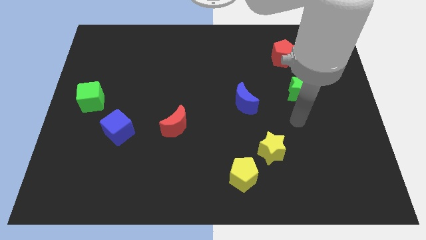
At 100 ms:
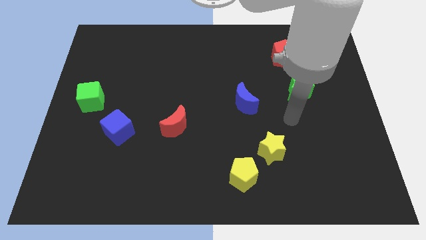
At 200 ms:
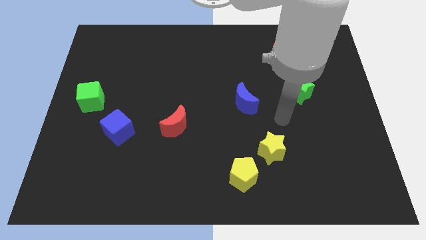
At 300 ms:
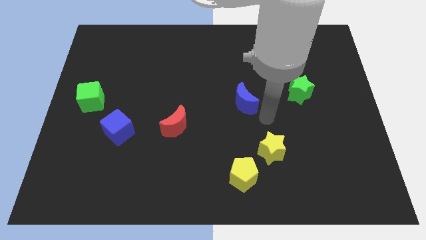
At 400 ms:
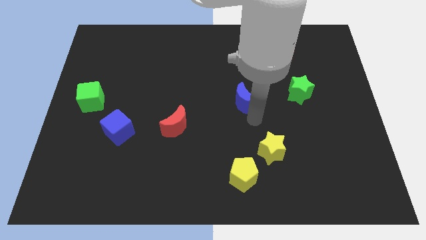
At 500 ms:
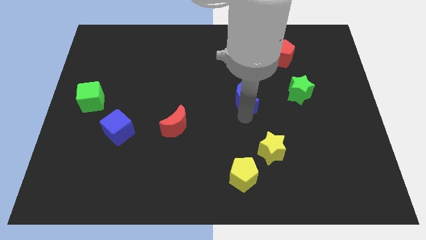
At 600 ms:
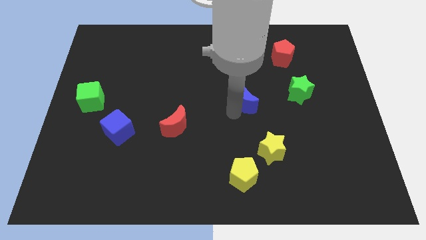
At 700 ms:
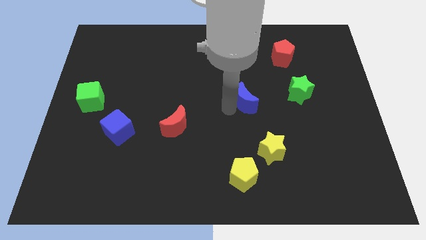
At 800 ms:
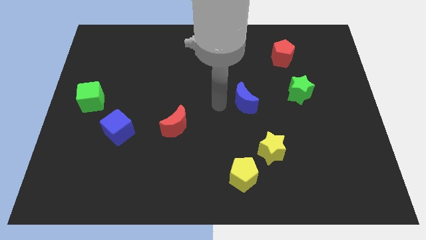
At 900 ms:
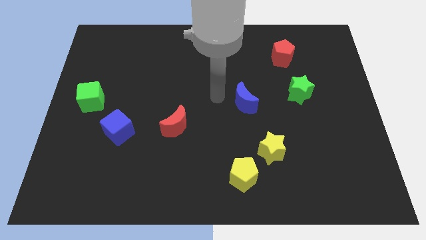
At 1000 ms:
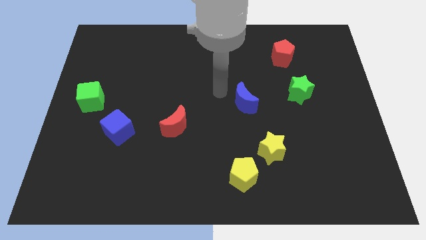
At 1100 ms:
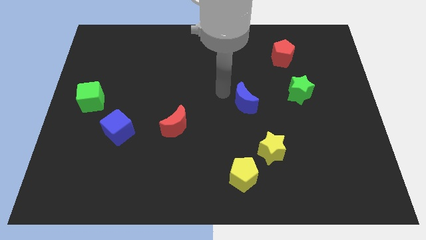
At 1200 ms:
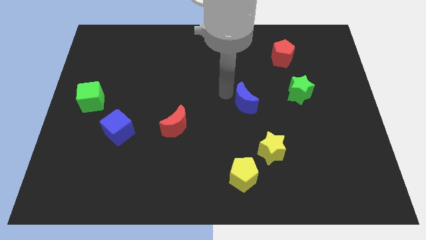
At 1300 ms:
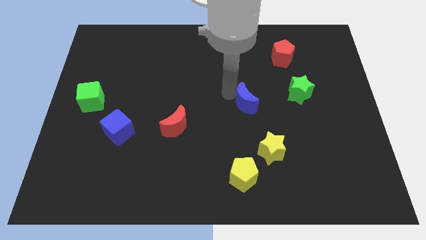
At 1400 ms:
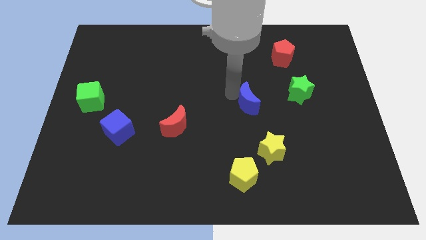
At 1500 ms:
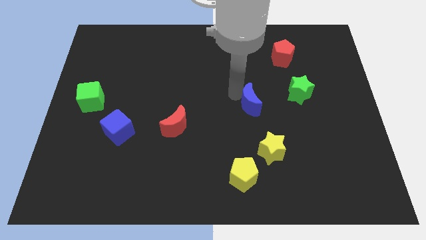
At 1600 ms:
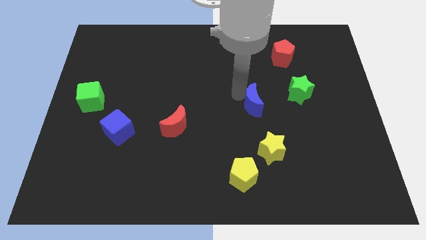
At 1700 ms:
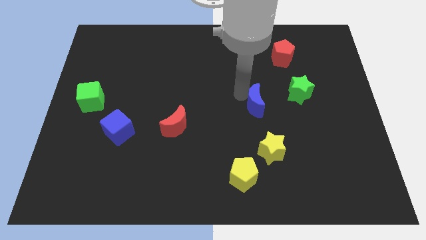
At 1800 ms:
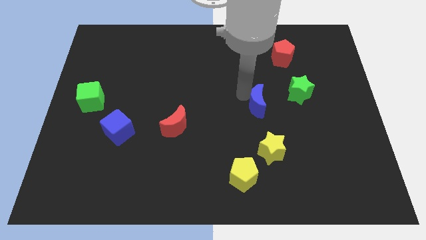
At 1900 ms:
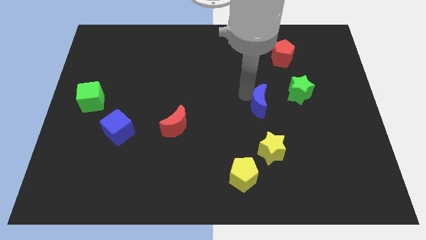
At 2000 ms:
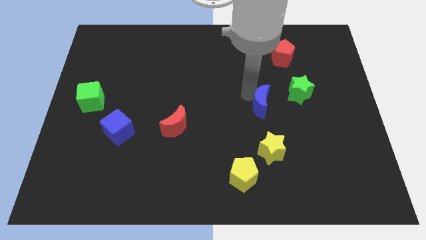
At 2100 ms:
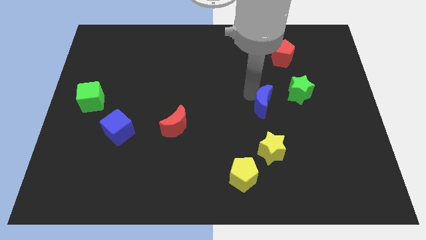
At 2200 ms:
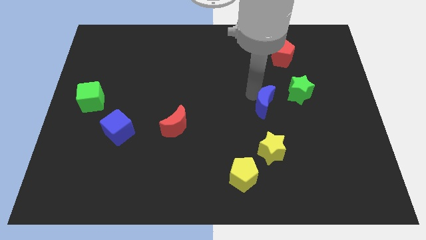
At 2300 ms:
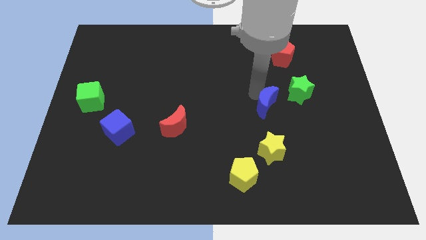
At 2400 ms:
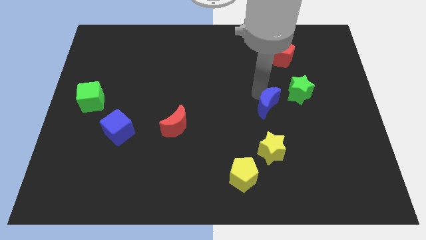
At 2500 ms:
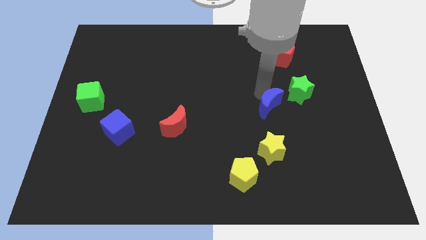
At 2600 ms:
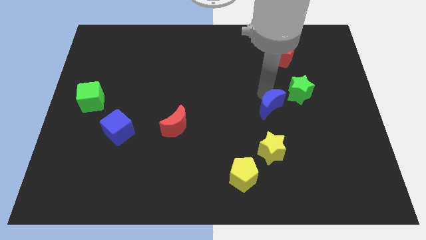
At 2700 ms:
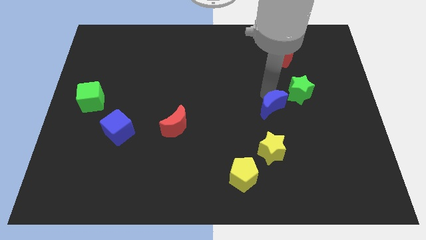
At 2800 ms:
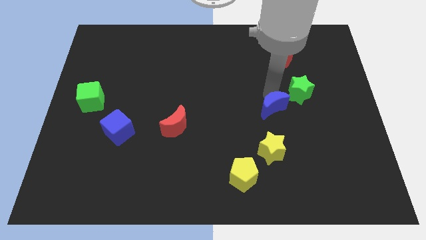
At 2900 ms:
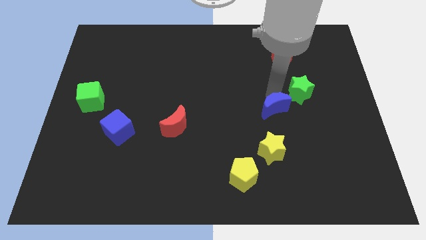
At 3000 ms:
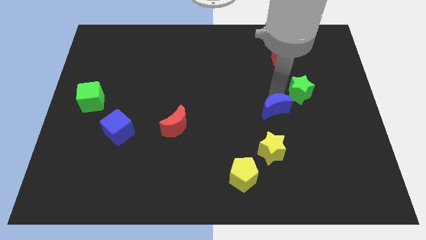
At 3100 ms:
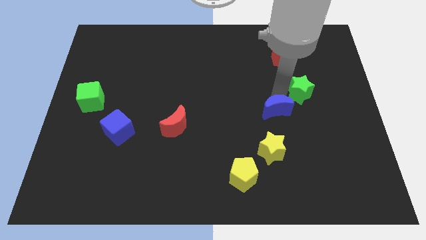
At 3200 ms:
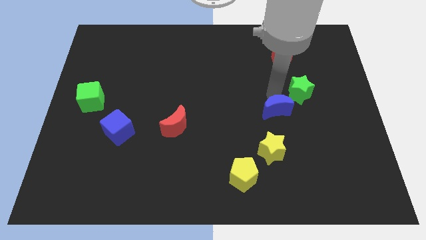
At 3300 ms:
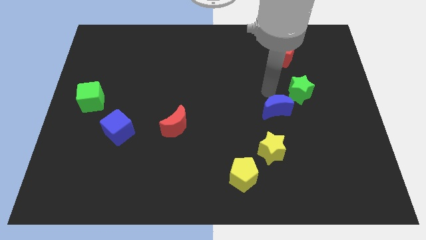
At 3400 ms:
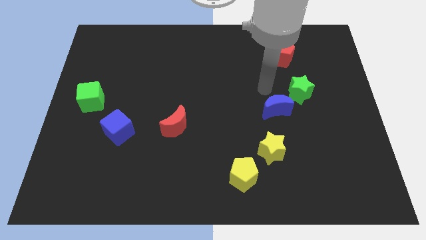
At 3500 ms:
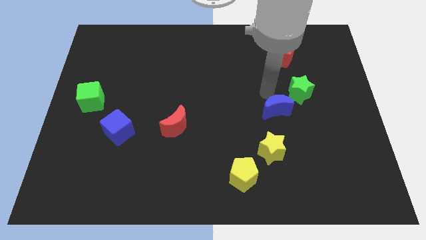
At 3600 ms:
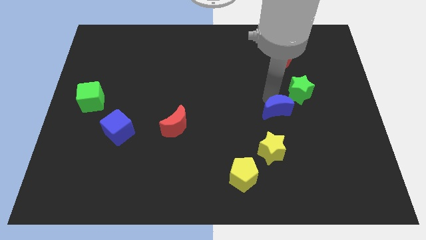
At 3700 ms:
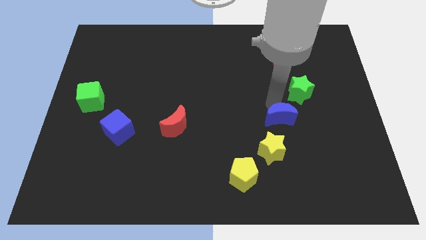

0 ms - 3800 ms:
slide the blue moon a little bit downwards and then right

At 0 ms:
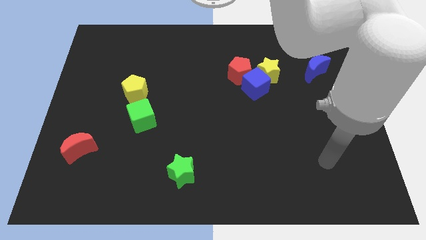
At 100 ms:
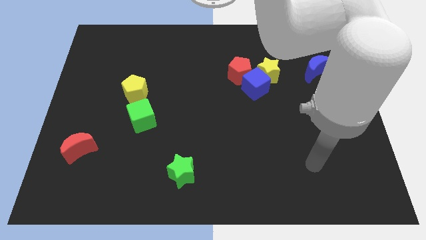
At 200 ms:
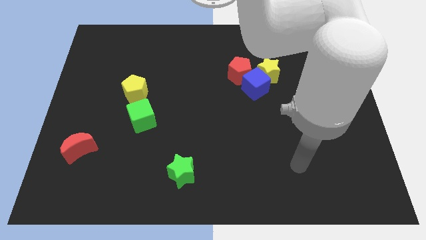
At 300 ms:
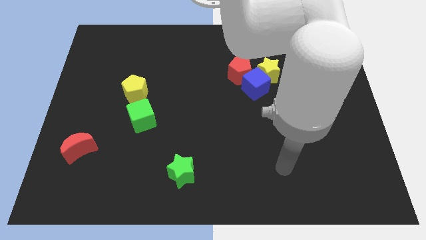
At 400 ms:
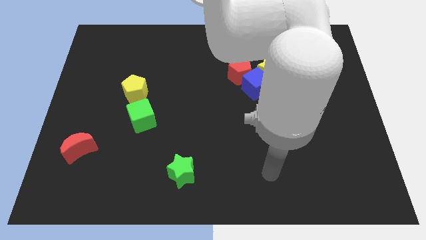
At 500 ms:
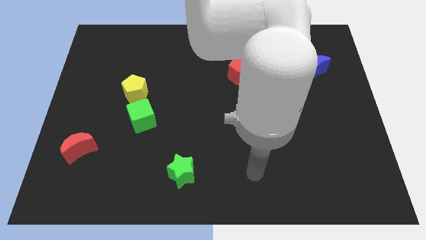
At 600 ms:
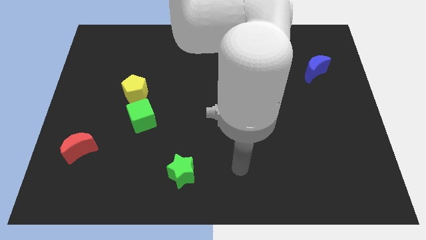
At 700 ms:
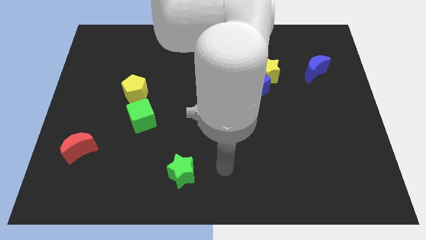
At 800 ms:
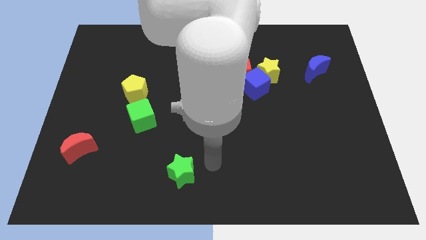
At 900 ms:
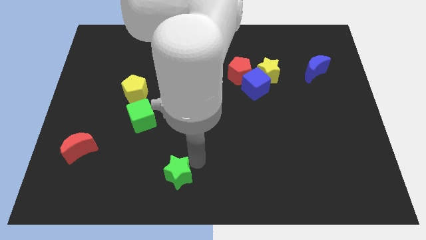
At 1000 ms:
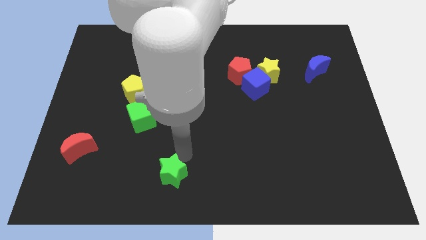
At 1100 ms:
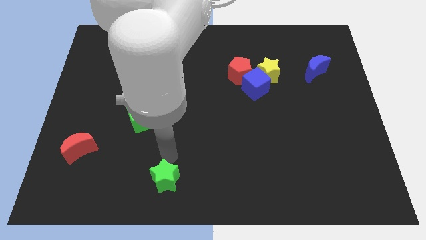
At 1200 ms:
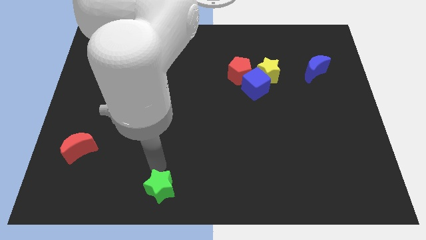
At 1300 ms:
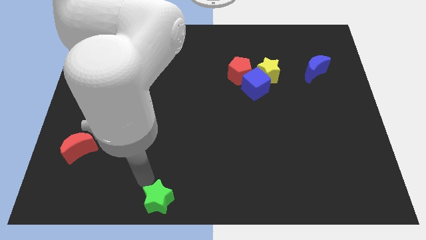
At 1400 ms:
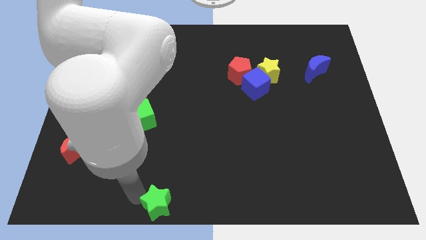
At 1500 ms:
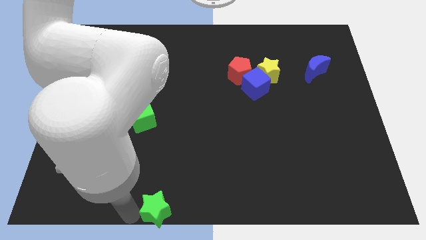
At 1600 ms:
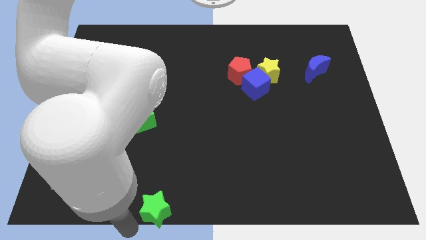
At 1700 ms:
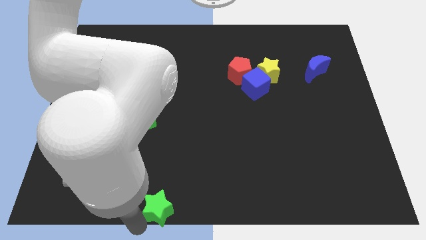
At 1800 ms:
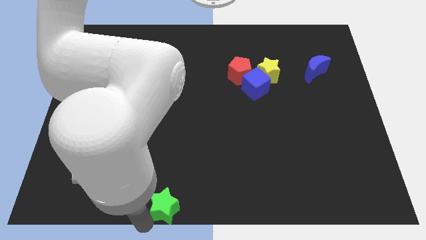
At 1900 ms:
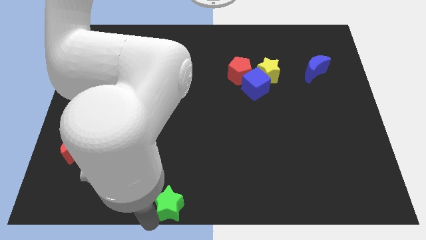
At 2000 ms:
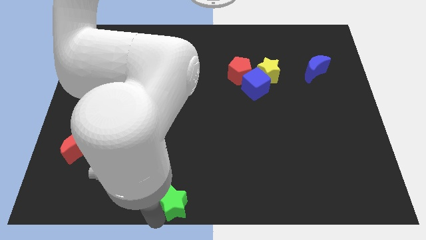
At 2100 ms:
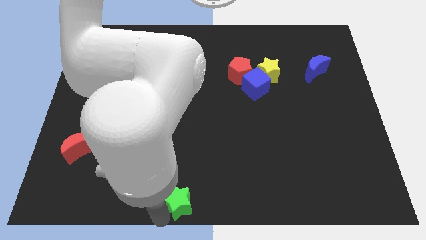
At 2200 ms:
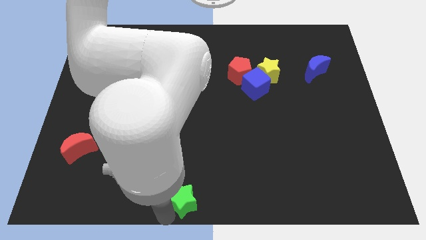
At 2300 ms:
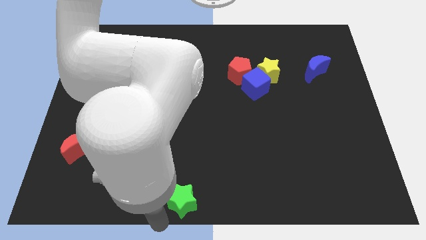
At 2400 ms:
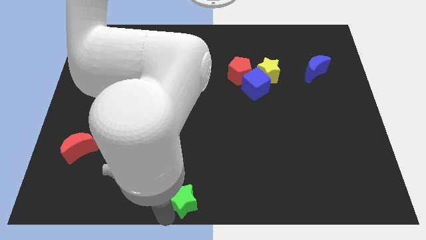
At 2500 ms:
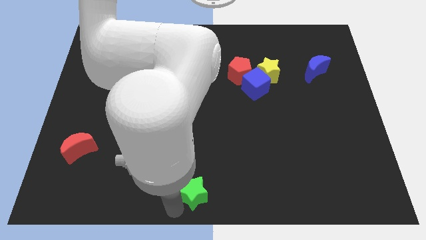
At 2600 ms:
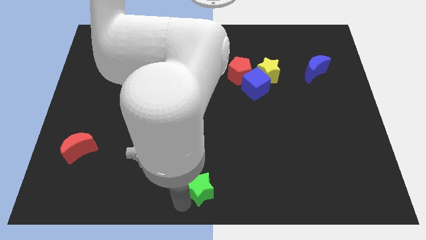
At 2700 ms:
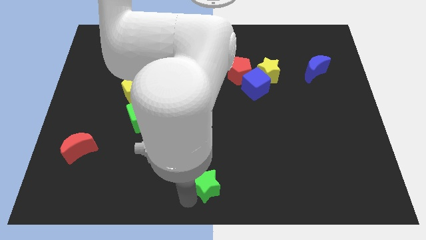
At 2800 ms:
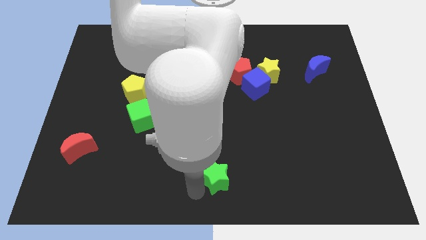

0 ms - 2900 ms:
move the green star slightly to the right

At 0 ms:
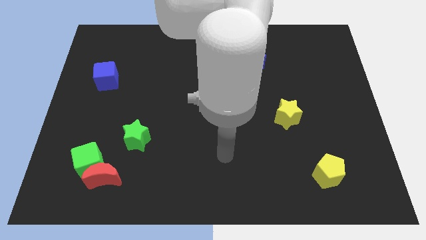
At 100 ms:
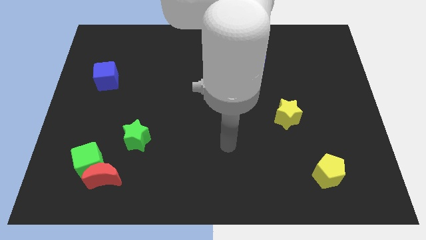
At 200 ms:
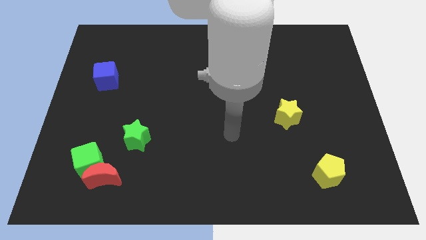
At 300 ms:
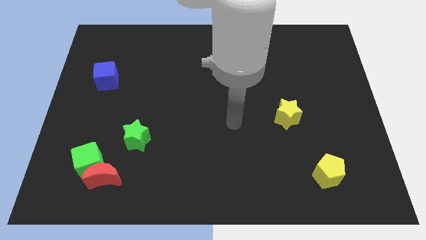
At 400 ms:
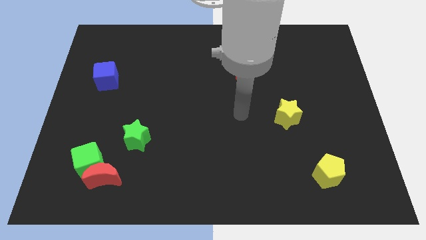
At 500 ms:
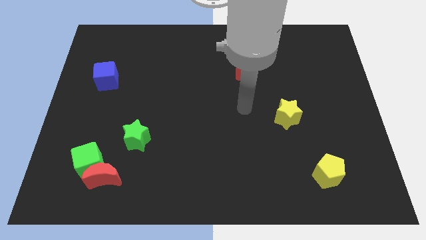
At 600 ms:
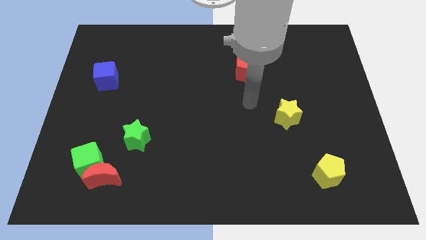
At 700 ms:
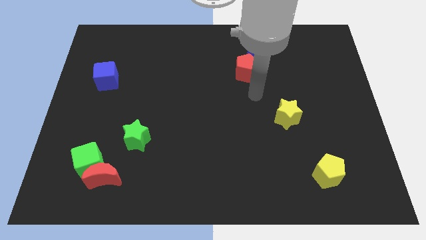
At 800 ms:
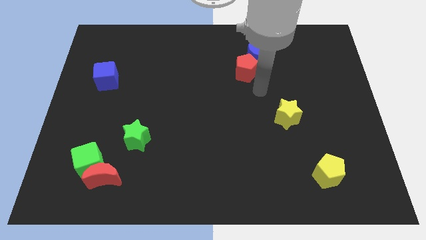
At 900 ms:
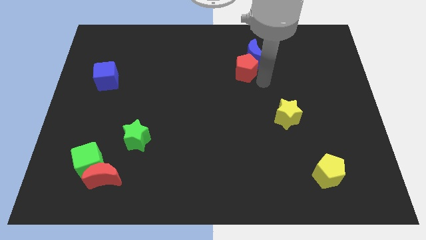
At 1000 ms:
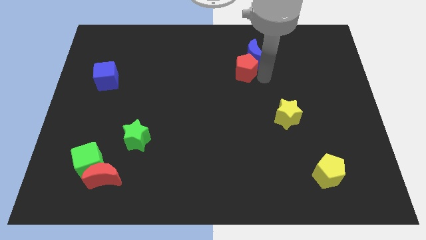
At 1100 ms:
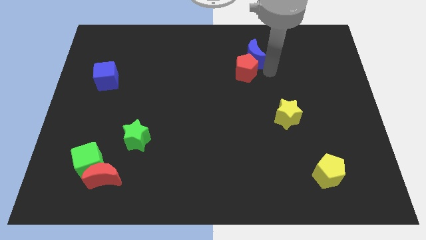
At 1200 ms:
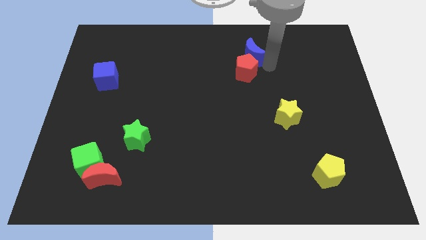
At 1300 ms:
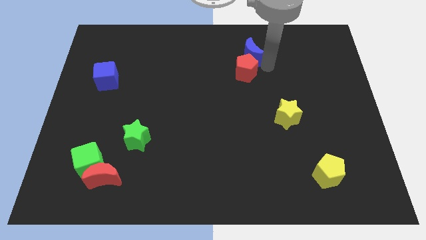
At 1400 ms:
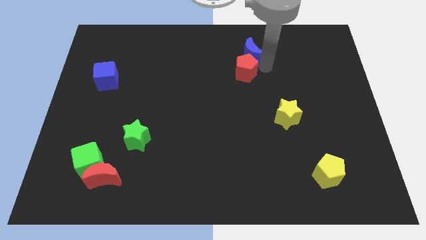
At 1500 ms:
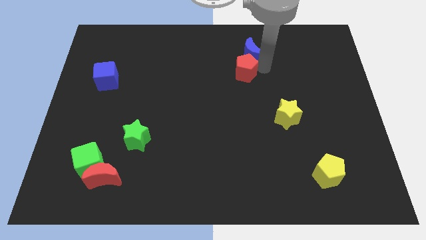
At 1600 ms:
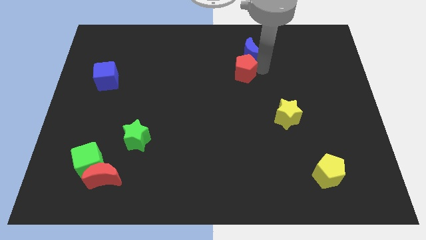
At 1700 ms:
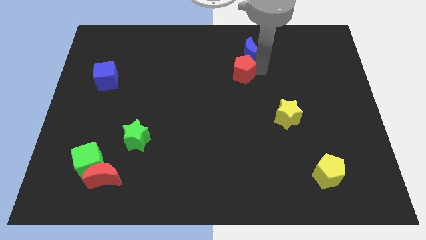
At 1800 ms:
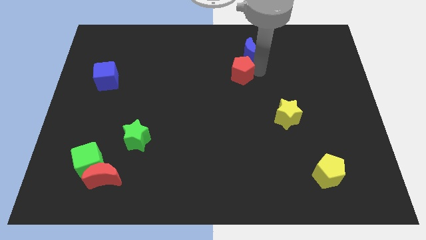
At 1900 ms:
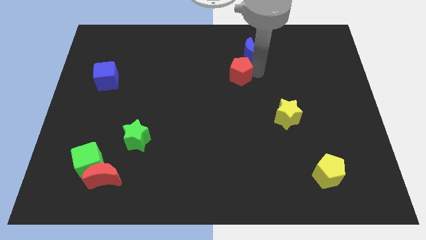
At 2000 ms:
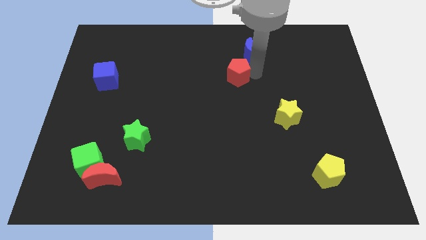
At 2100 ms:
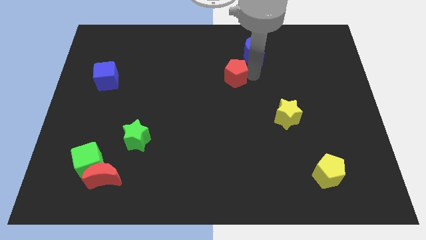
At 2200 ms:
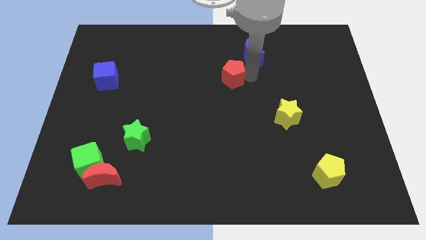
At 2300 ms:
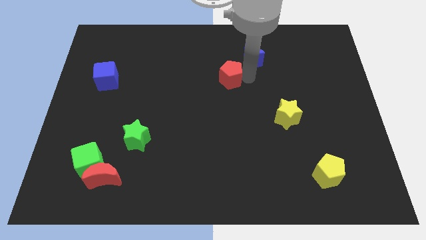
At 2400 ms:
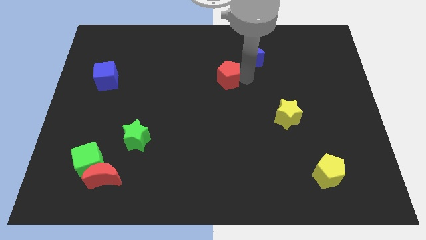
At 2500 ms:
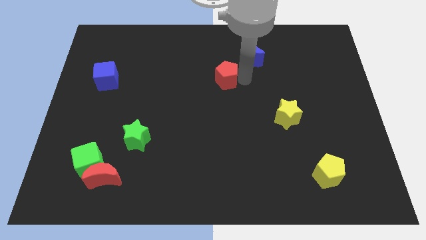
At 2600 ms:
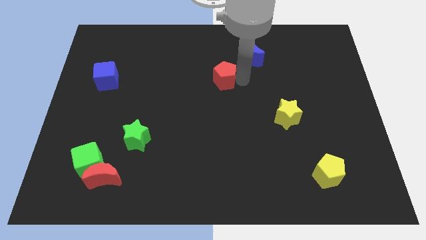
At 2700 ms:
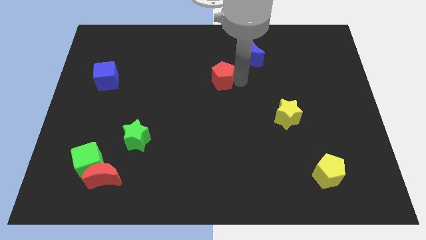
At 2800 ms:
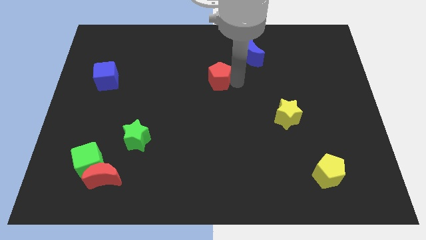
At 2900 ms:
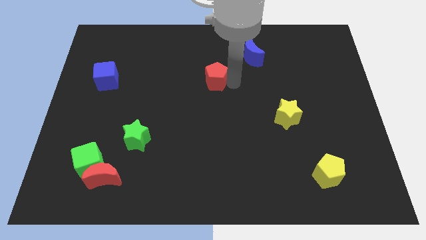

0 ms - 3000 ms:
slide the red pentagon to the left a little bit
